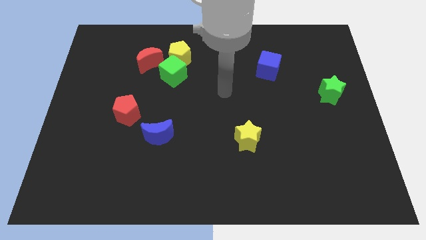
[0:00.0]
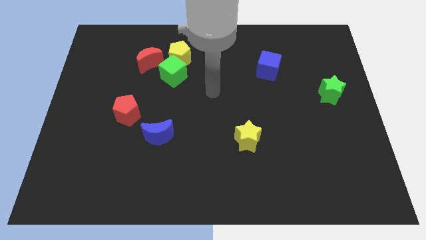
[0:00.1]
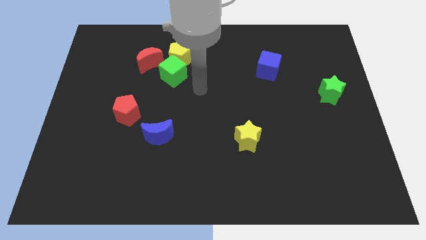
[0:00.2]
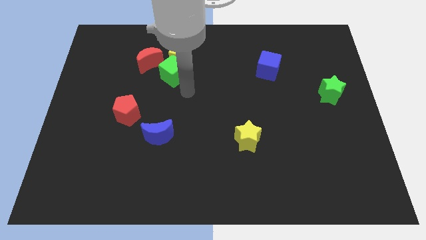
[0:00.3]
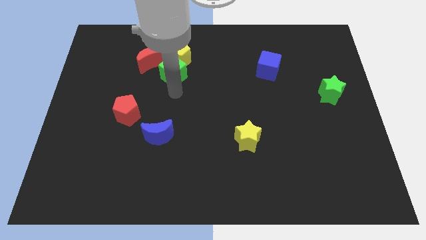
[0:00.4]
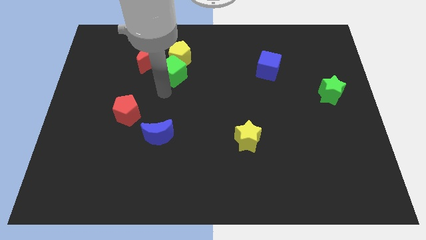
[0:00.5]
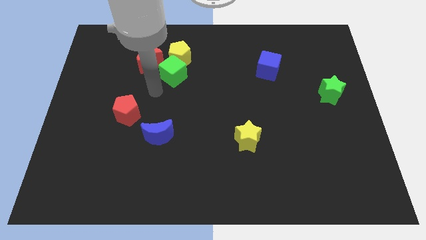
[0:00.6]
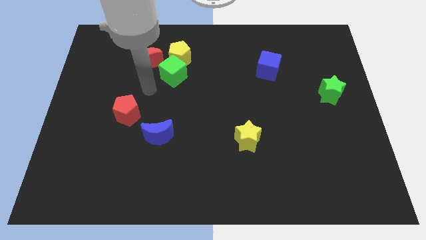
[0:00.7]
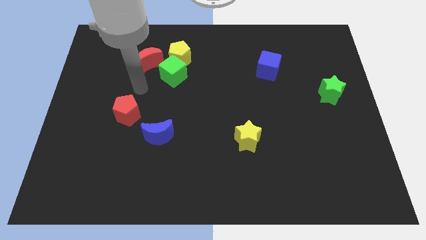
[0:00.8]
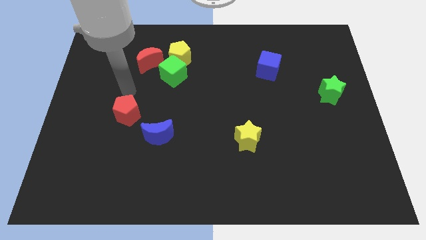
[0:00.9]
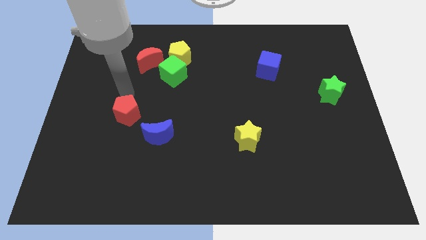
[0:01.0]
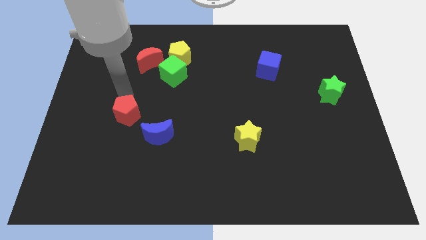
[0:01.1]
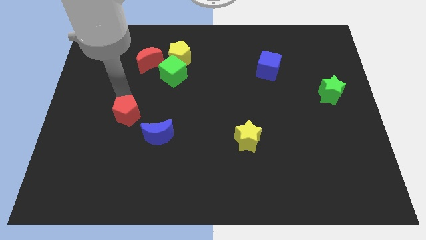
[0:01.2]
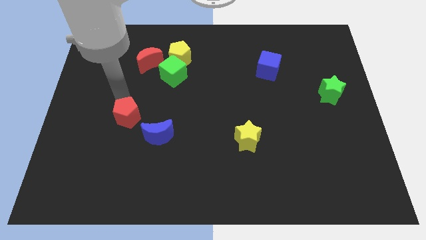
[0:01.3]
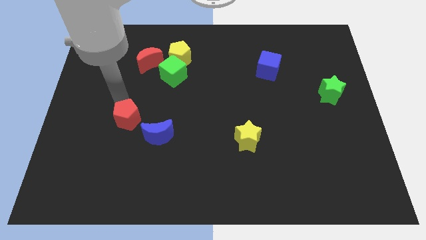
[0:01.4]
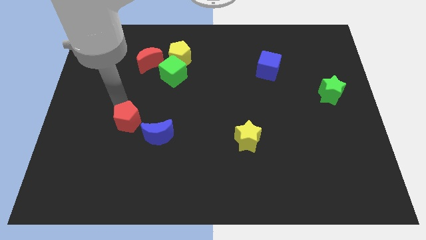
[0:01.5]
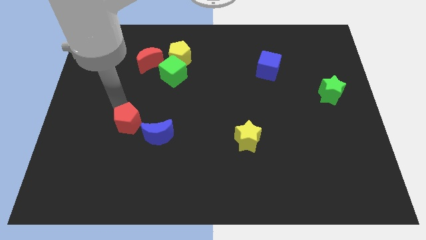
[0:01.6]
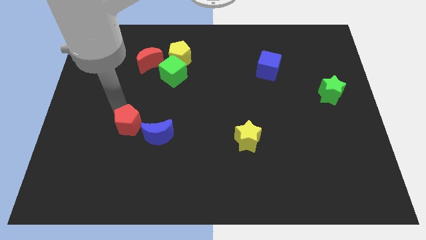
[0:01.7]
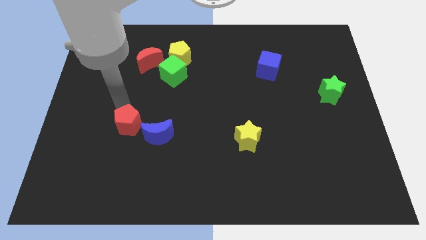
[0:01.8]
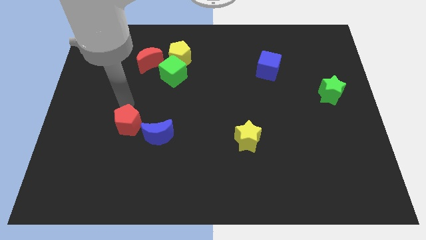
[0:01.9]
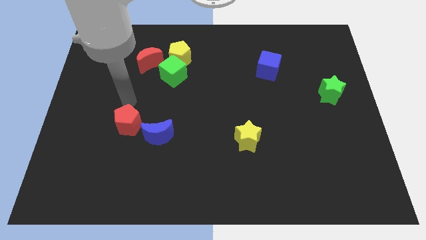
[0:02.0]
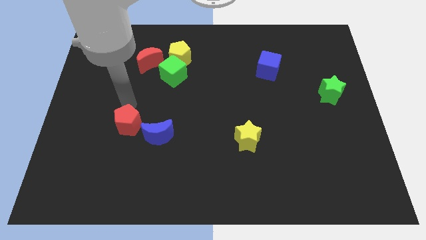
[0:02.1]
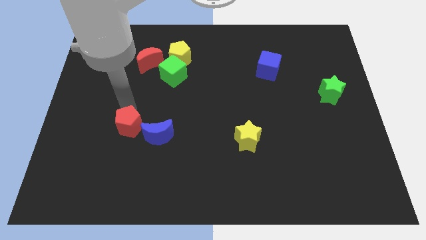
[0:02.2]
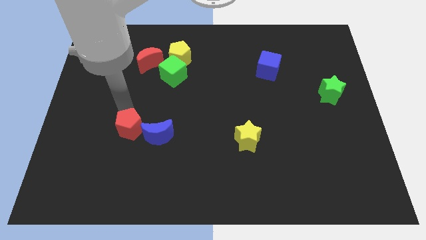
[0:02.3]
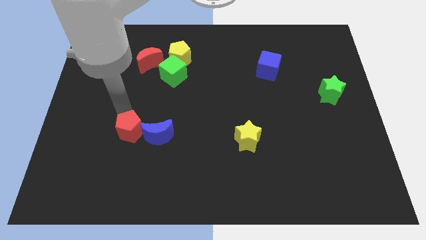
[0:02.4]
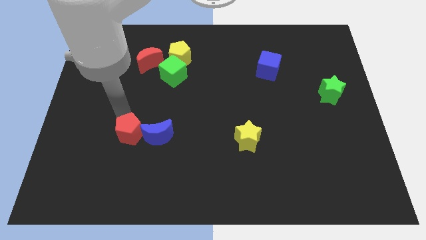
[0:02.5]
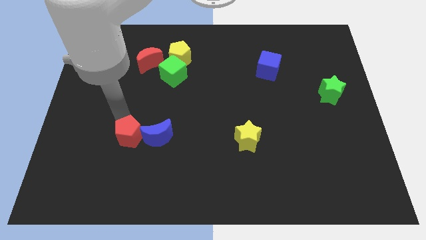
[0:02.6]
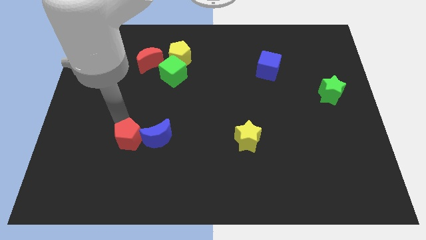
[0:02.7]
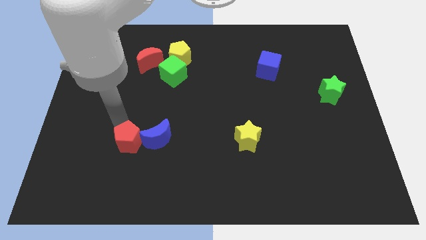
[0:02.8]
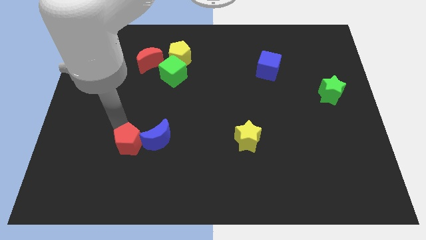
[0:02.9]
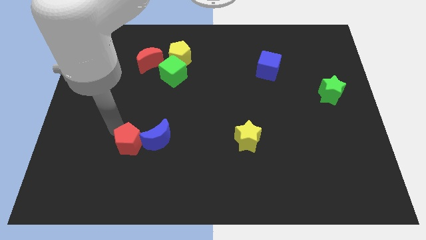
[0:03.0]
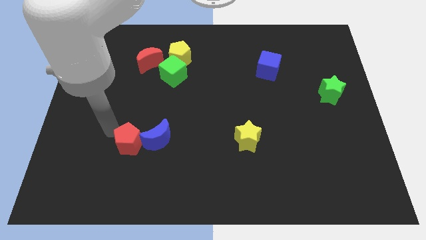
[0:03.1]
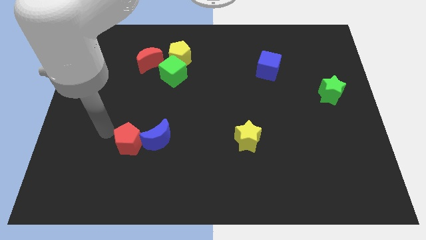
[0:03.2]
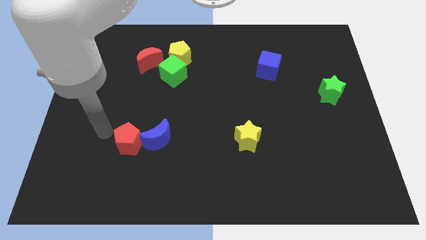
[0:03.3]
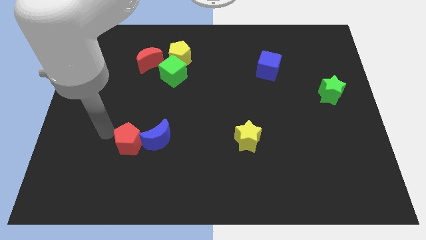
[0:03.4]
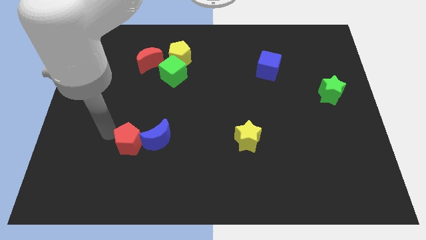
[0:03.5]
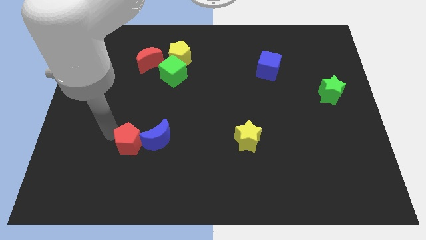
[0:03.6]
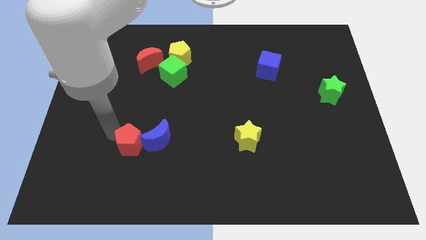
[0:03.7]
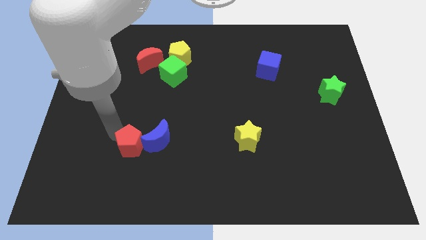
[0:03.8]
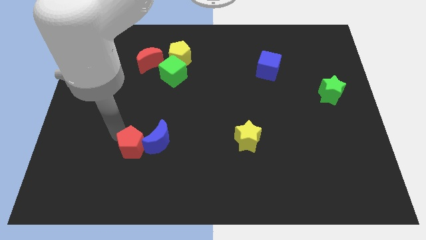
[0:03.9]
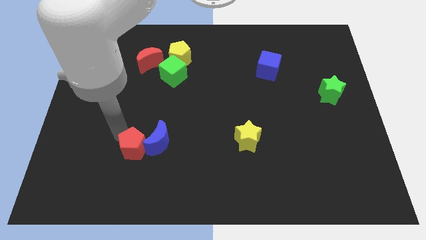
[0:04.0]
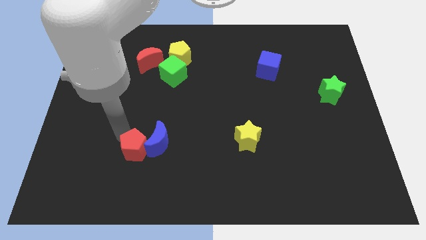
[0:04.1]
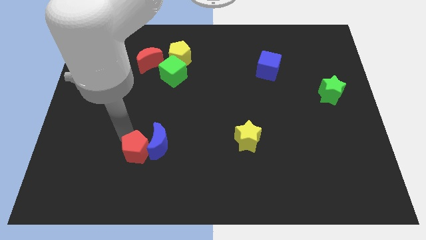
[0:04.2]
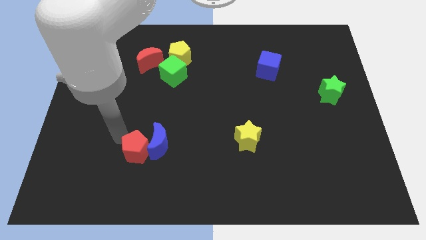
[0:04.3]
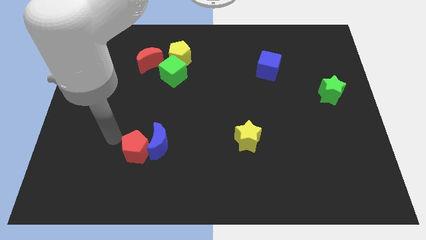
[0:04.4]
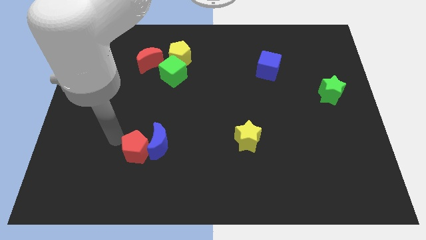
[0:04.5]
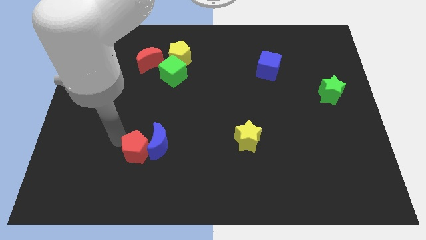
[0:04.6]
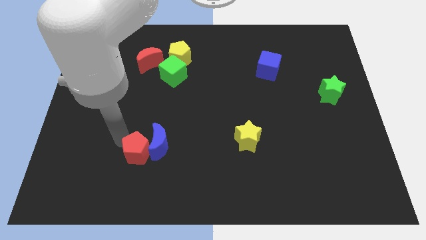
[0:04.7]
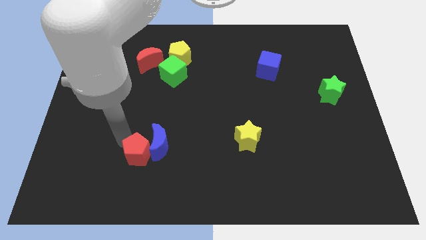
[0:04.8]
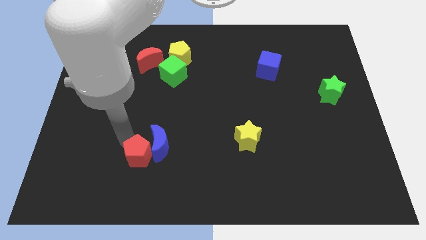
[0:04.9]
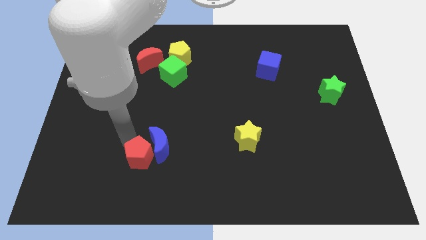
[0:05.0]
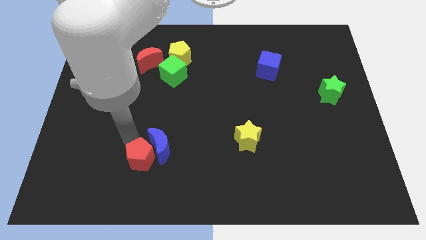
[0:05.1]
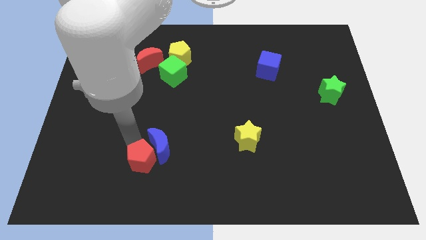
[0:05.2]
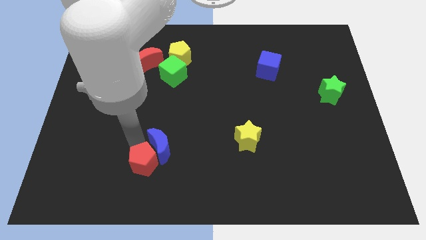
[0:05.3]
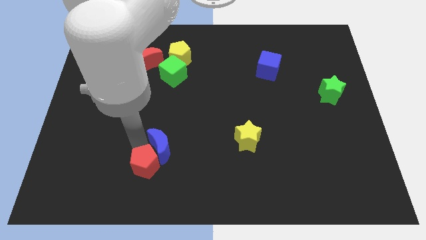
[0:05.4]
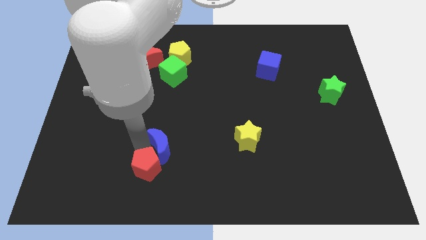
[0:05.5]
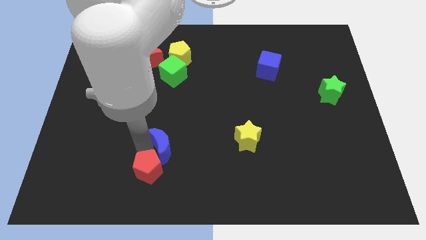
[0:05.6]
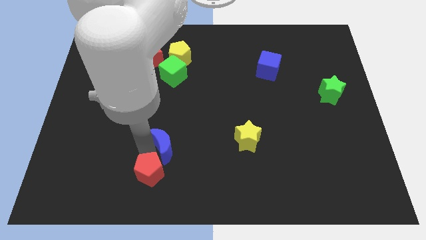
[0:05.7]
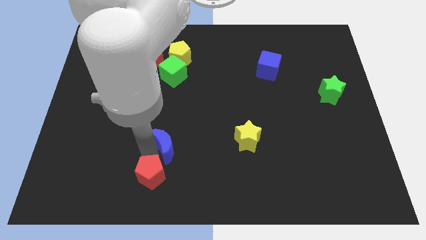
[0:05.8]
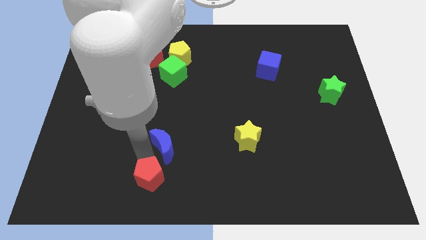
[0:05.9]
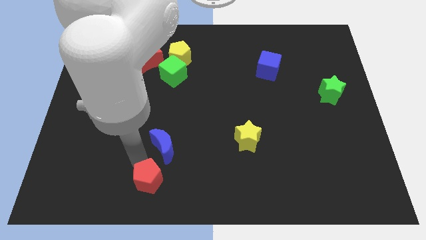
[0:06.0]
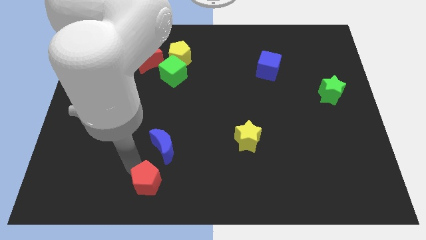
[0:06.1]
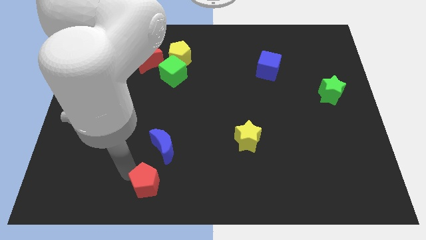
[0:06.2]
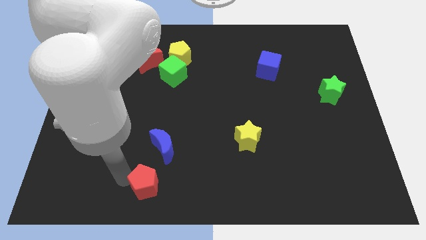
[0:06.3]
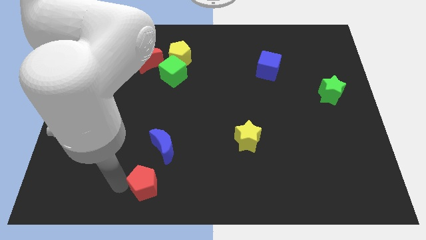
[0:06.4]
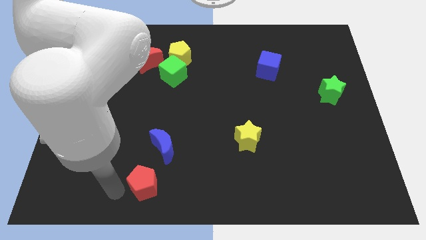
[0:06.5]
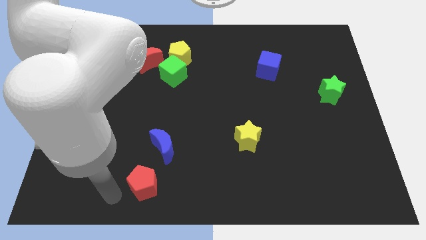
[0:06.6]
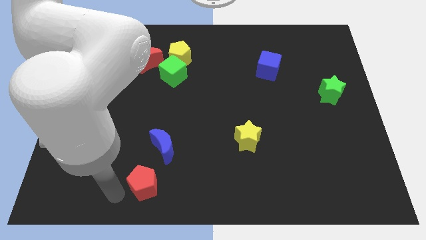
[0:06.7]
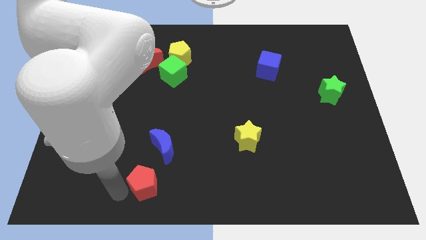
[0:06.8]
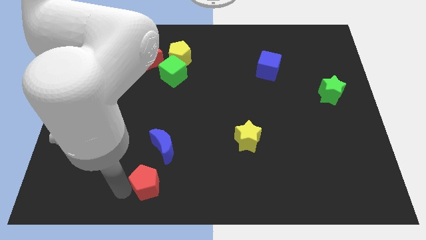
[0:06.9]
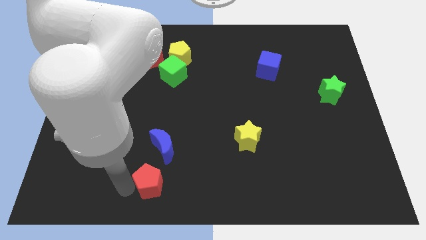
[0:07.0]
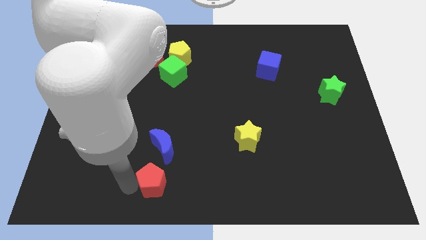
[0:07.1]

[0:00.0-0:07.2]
put the red pentagon to the bottom
